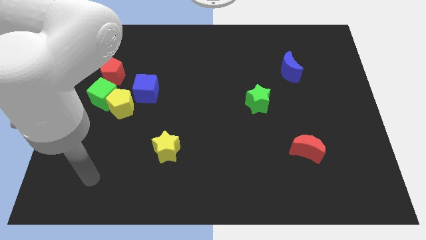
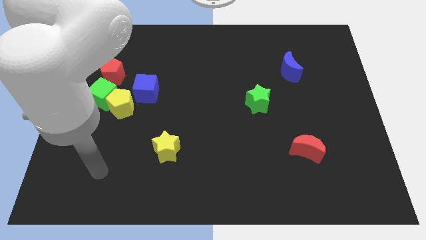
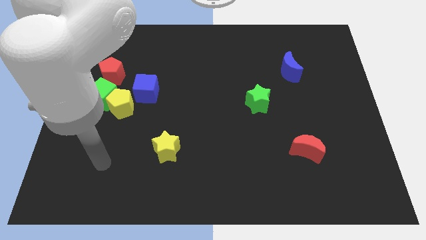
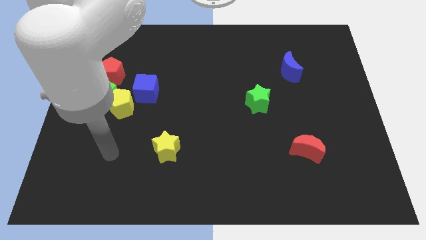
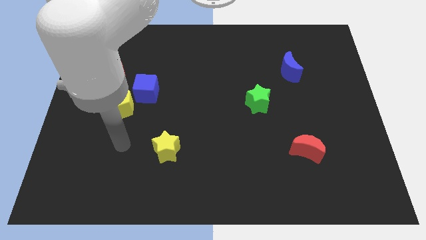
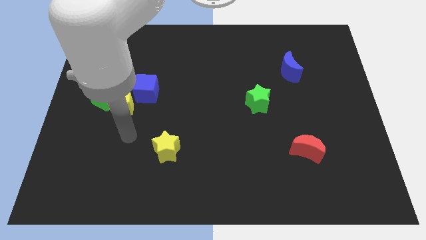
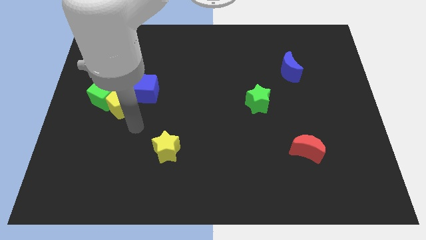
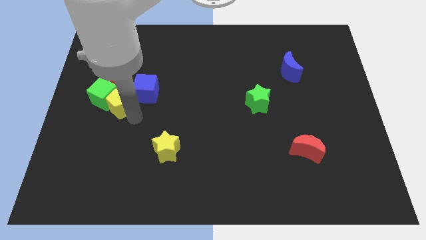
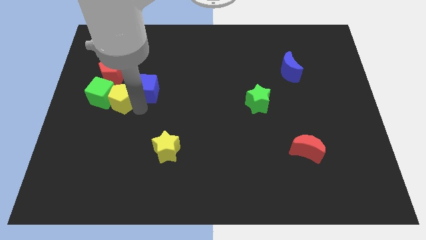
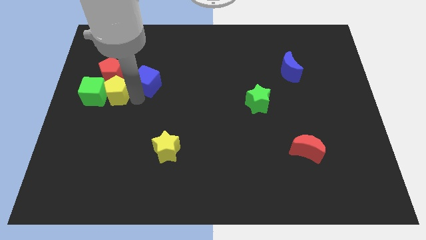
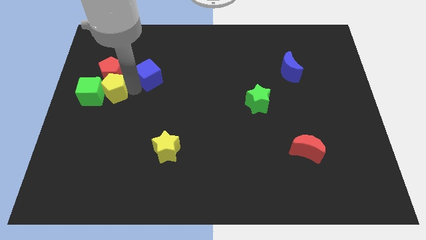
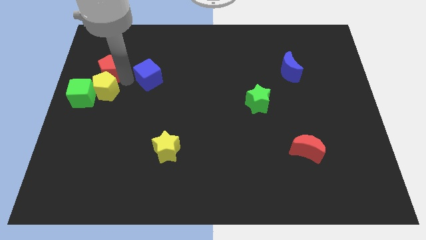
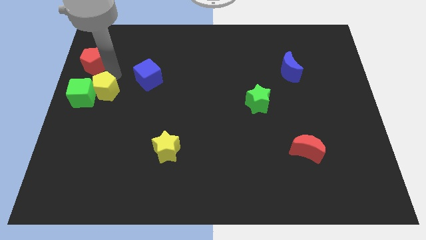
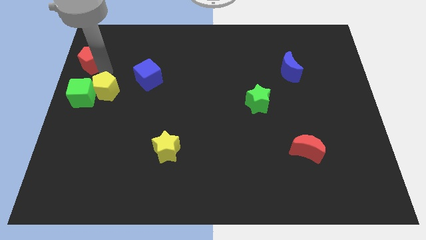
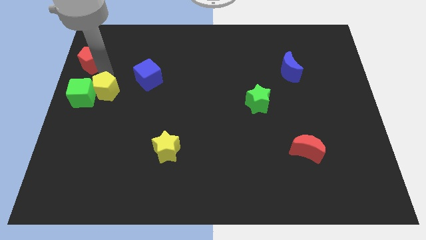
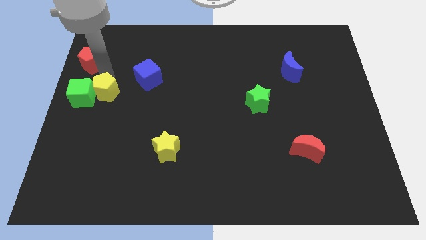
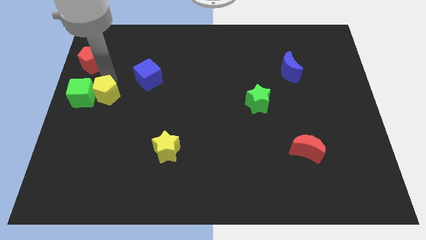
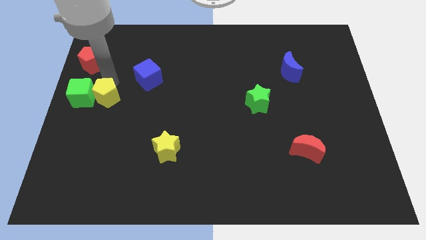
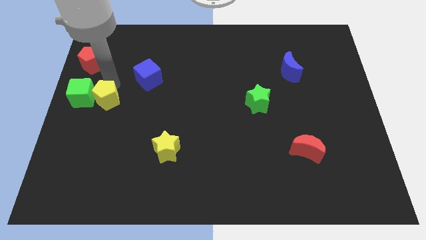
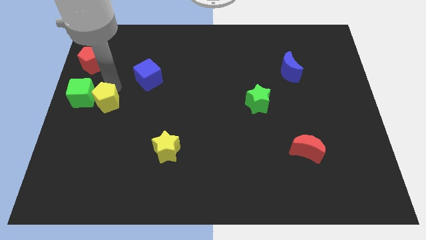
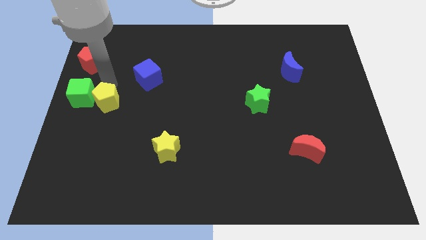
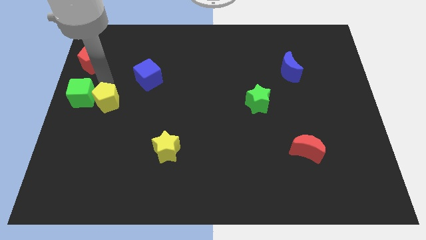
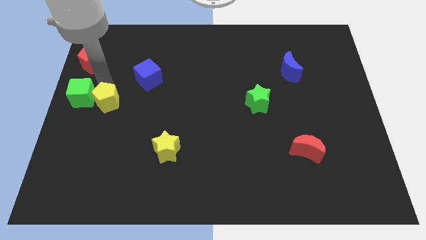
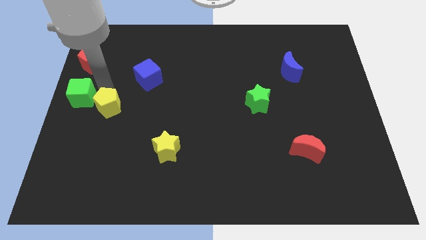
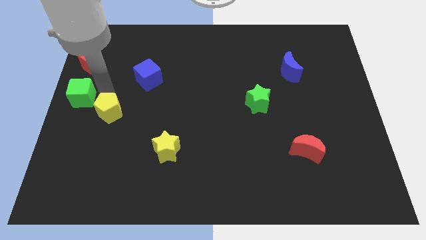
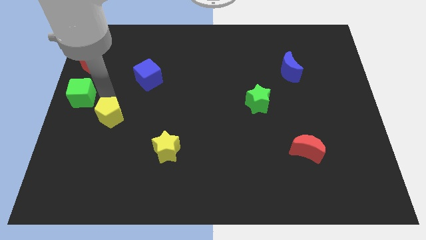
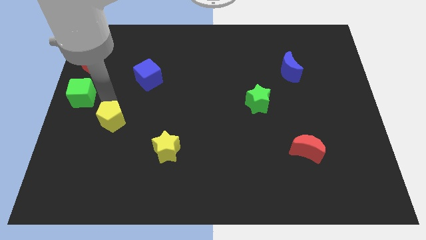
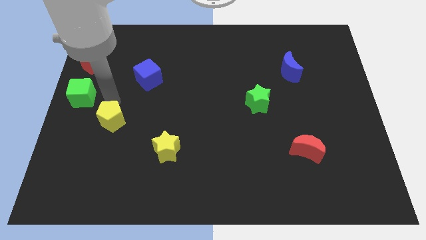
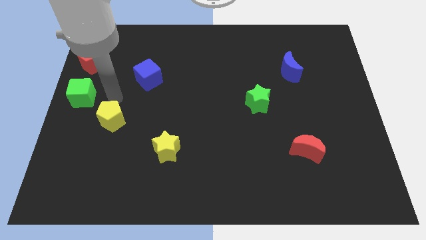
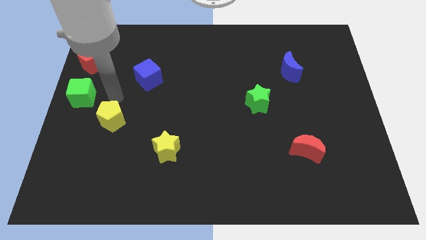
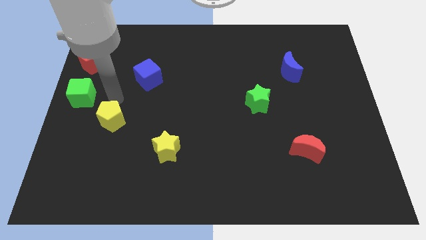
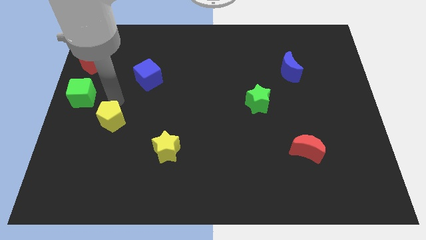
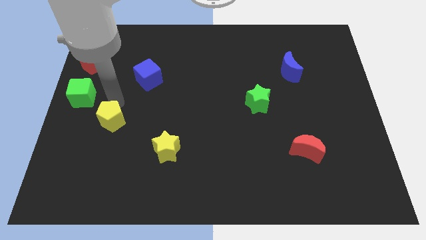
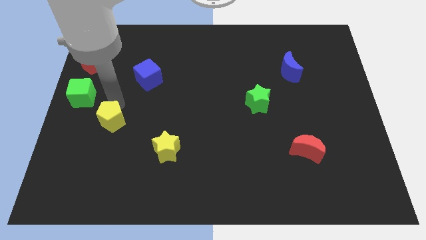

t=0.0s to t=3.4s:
move the yellow pentagon away from the green cube and blue cube

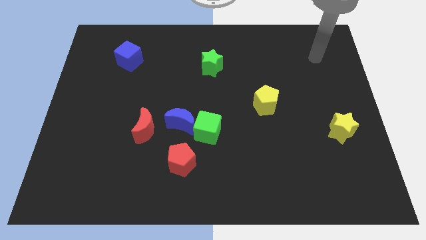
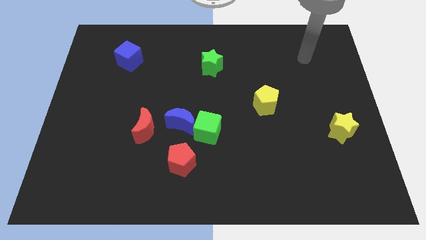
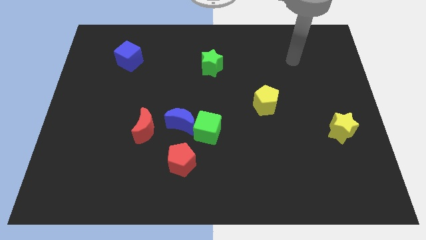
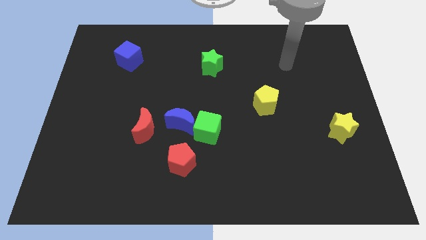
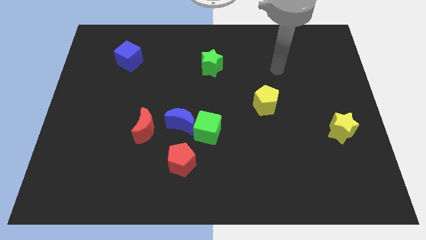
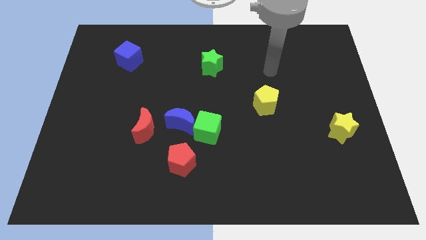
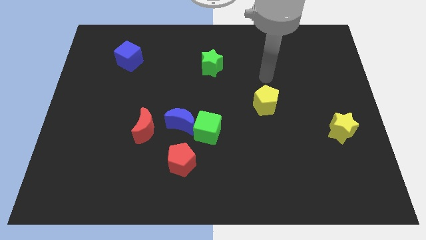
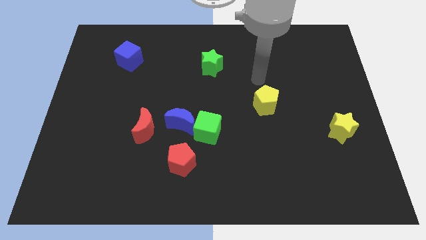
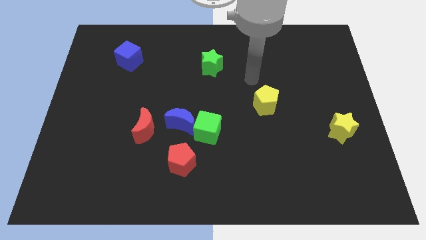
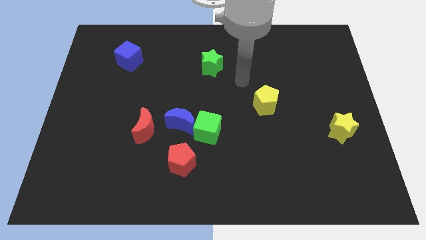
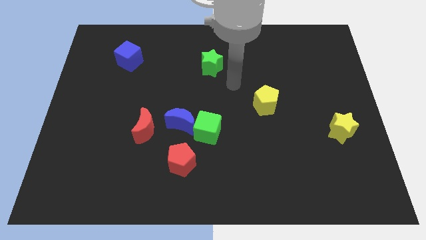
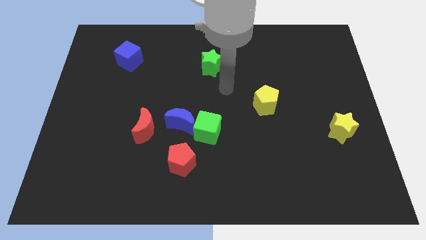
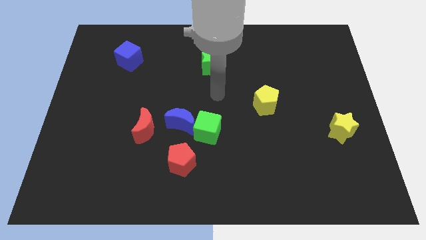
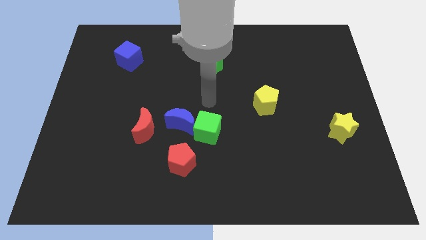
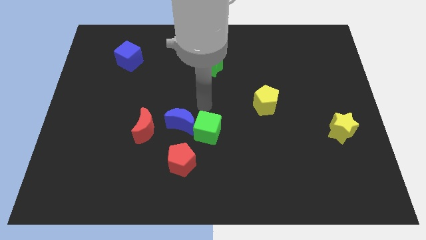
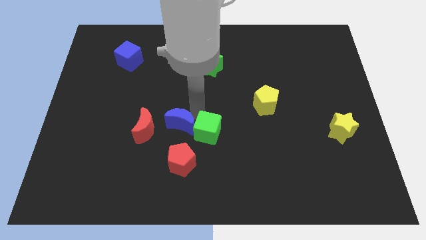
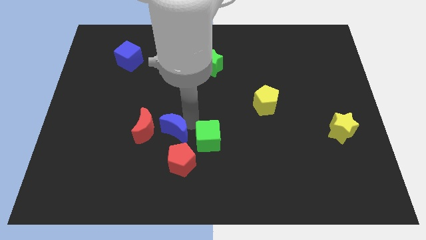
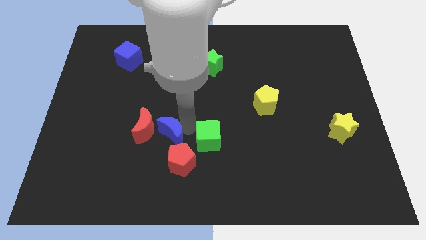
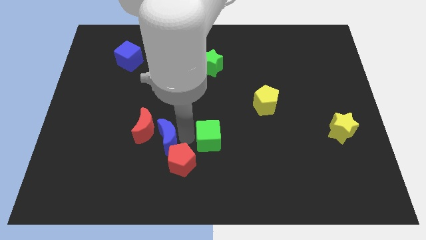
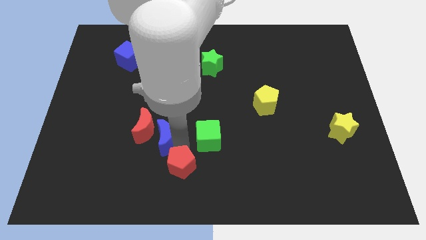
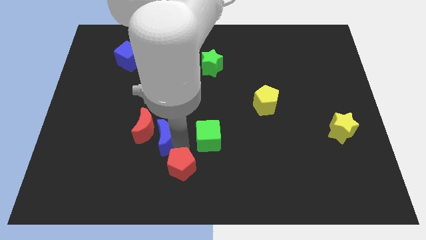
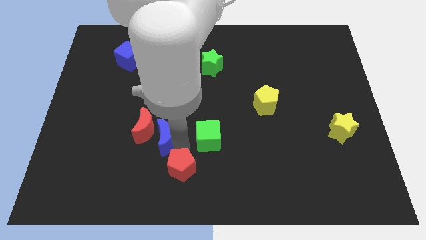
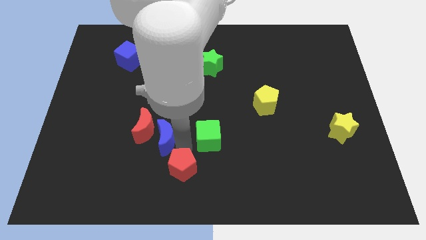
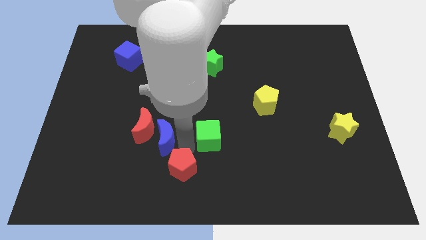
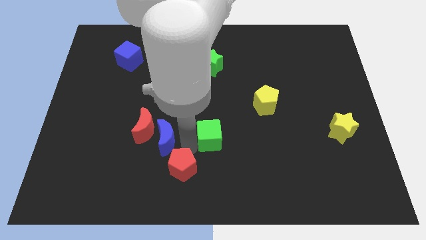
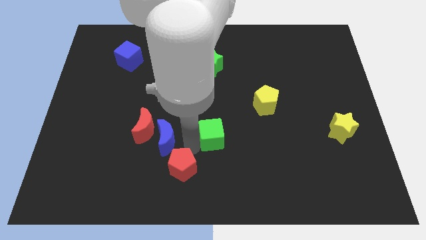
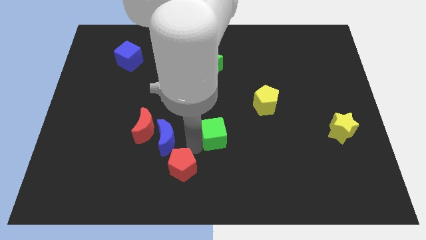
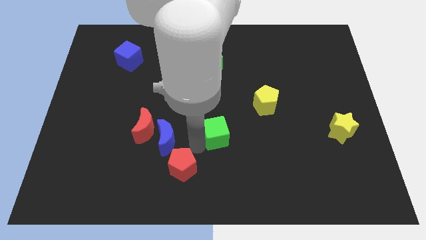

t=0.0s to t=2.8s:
move the green cube away from the blue moon and red pentagon

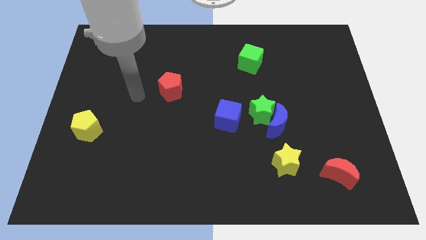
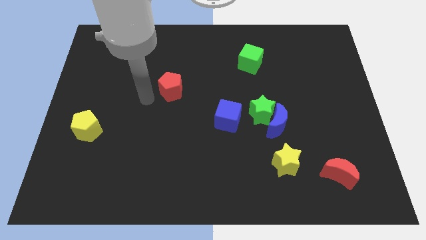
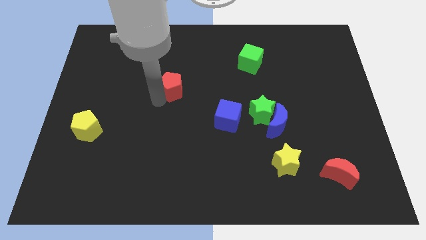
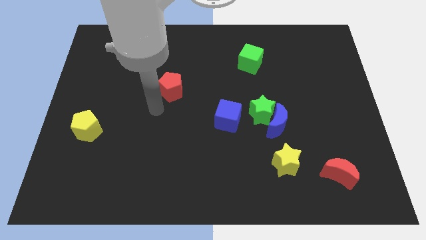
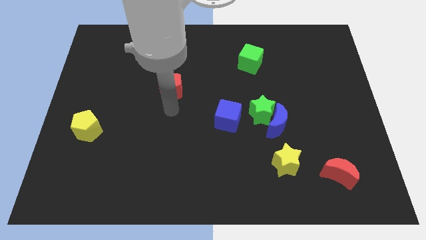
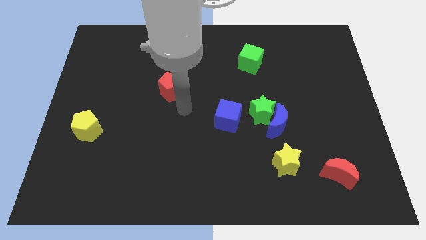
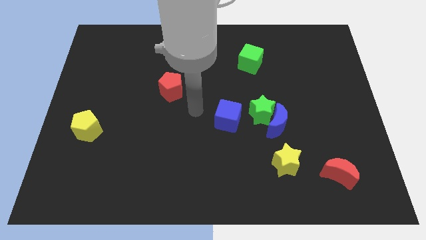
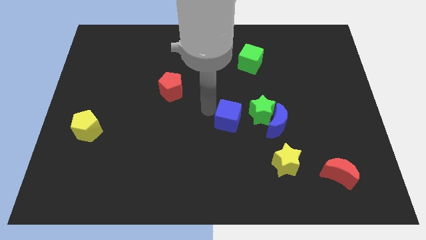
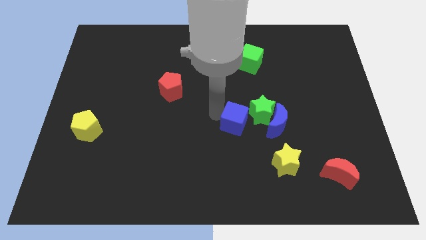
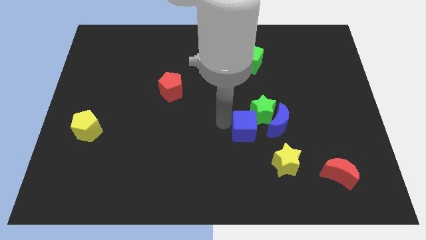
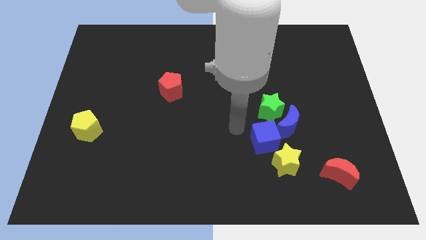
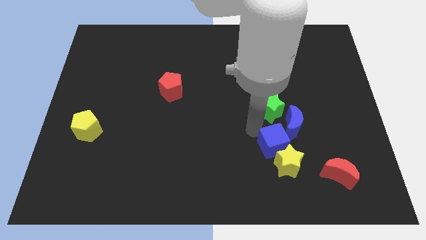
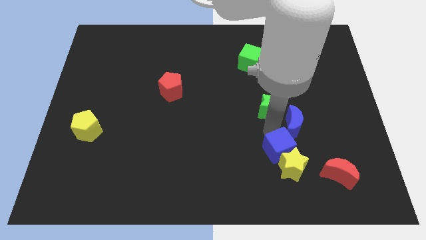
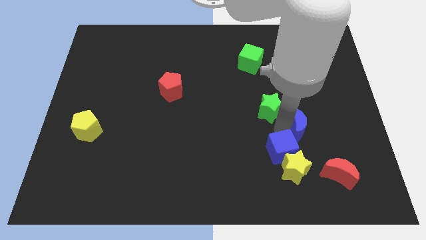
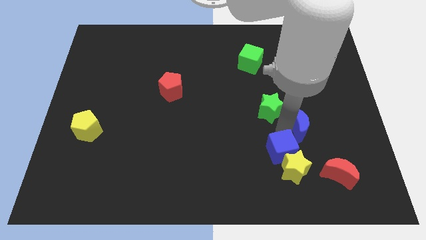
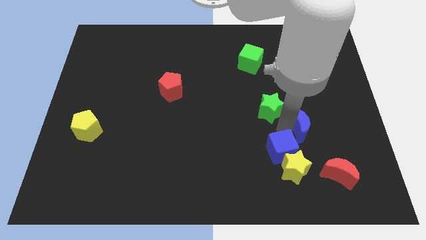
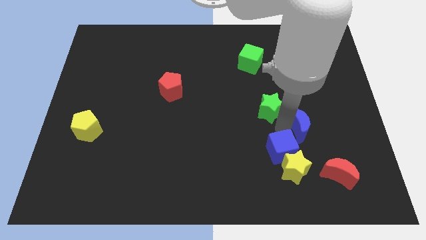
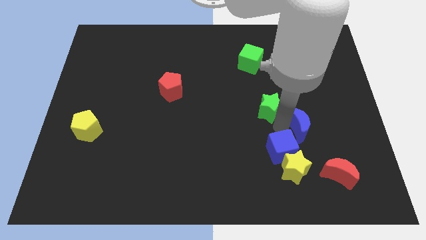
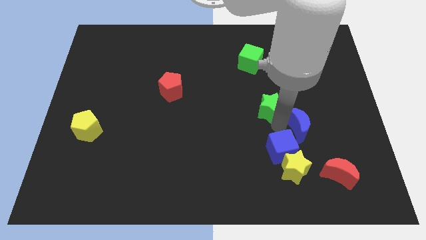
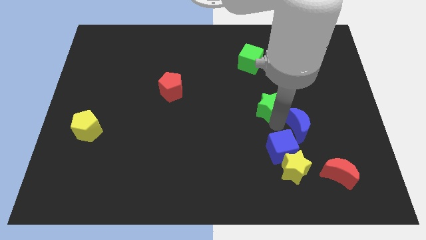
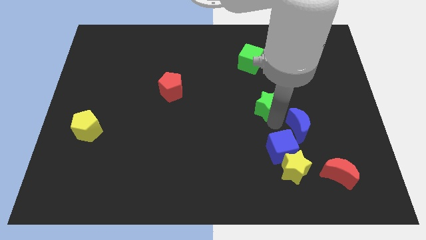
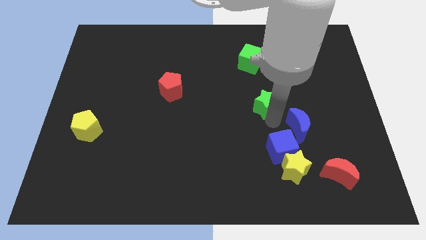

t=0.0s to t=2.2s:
move the green star away from the blue moon and blue cube

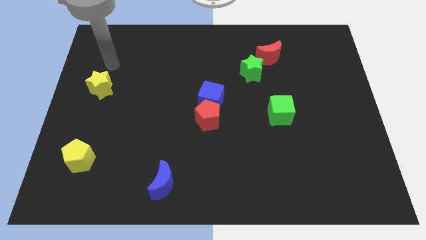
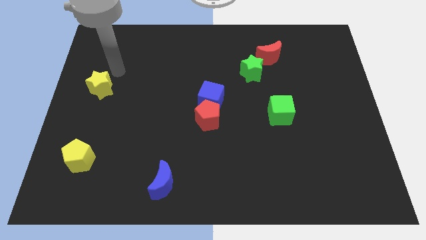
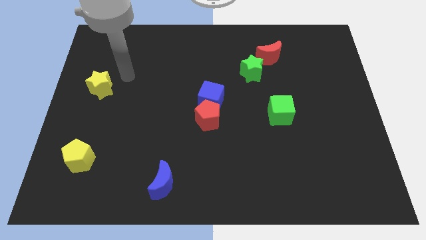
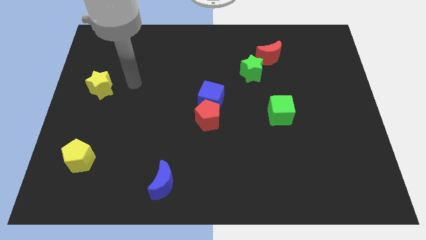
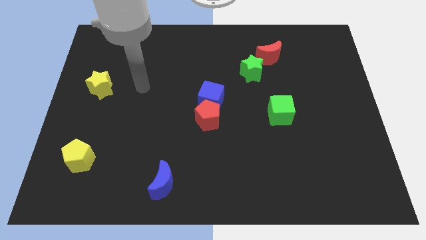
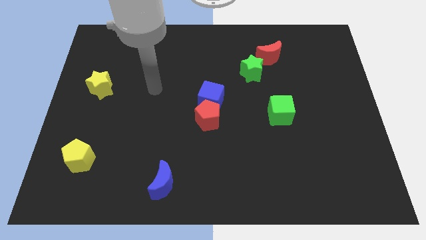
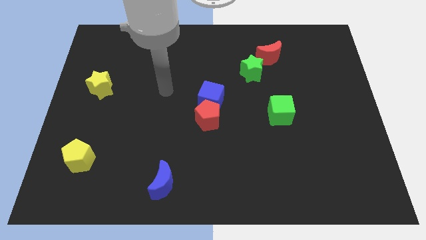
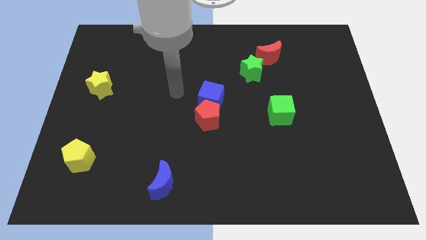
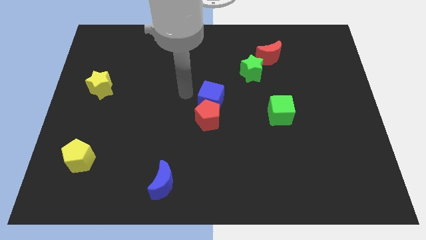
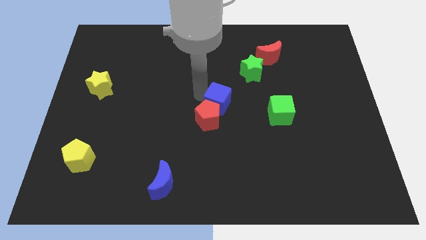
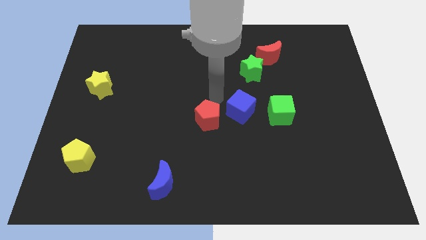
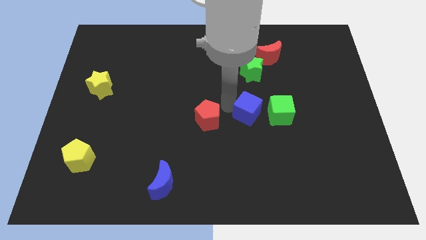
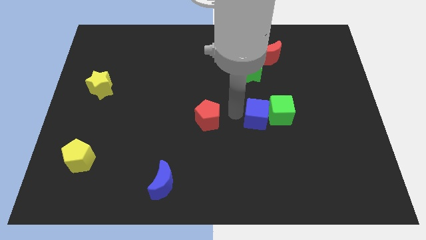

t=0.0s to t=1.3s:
pull the red pentagon apart from the blue cube
